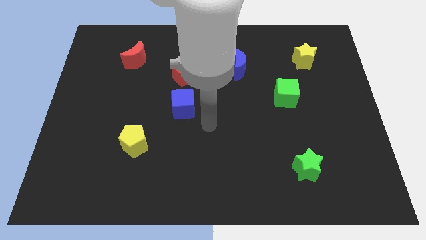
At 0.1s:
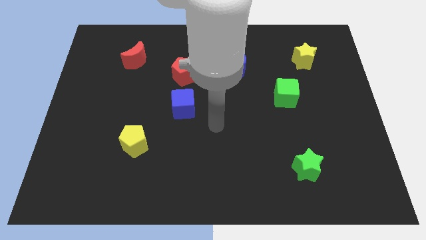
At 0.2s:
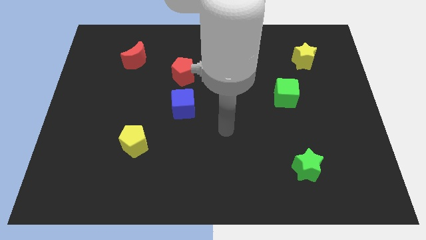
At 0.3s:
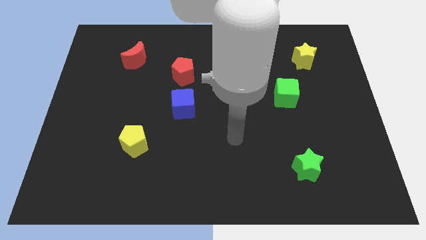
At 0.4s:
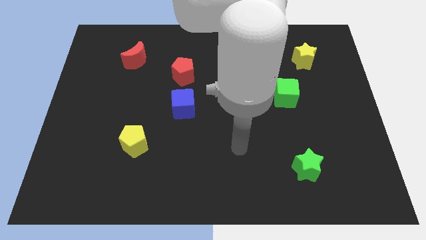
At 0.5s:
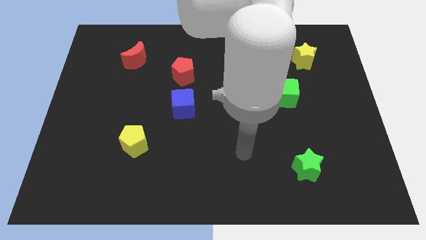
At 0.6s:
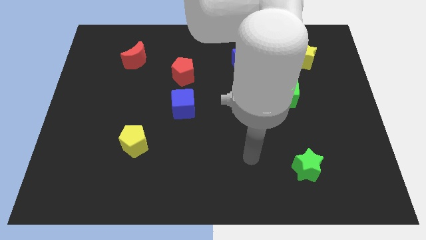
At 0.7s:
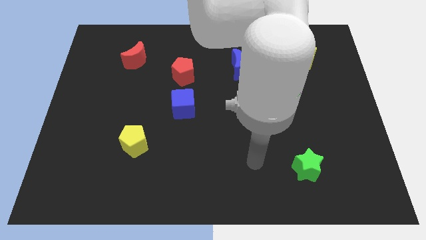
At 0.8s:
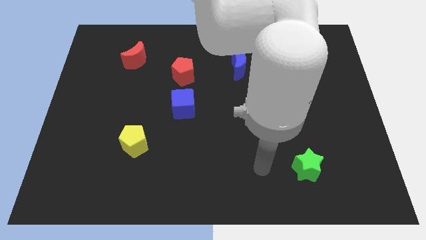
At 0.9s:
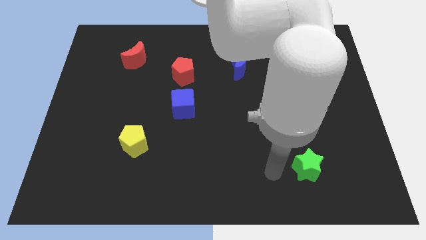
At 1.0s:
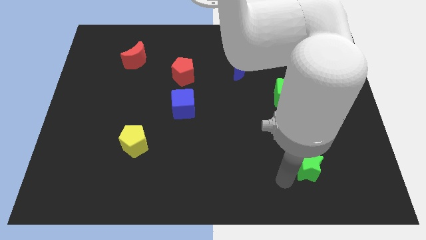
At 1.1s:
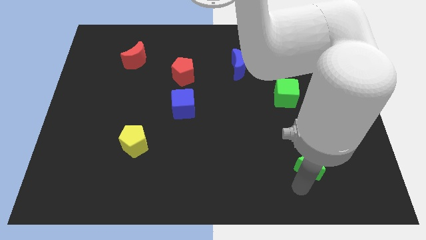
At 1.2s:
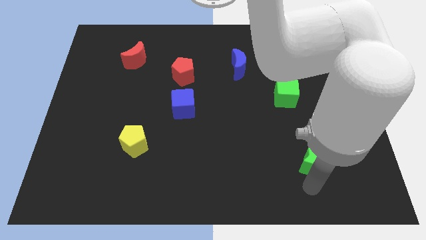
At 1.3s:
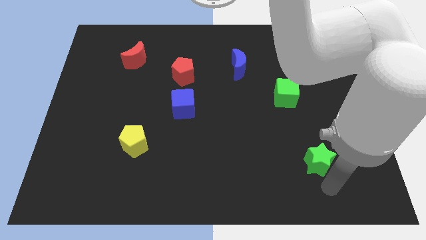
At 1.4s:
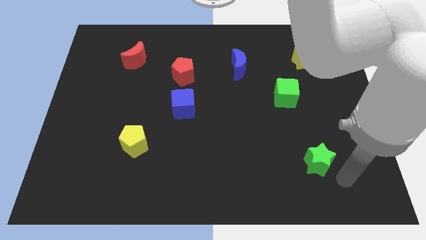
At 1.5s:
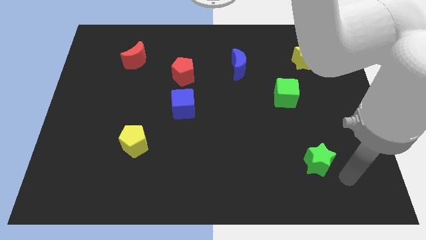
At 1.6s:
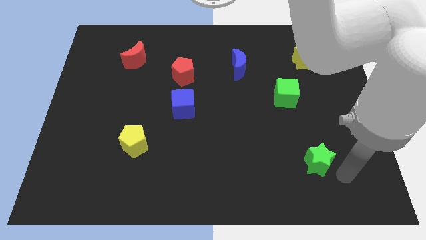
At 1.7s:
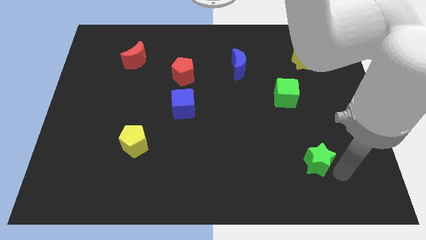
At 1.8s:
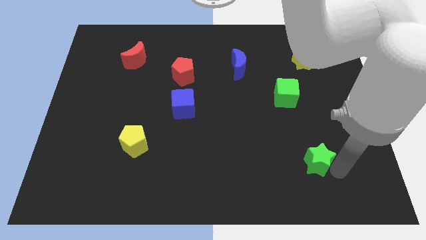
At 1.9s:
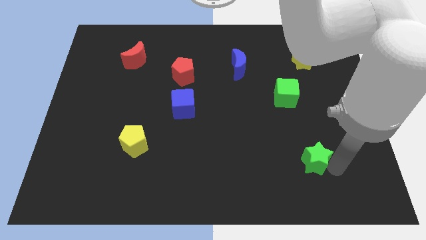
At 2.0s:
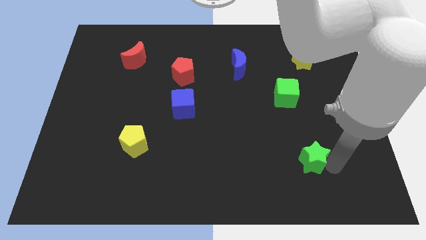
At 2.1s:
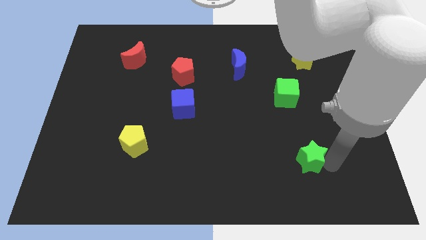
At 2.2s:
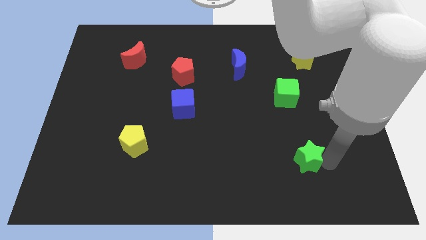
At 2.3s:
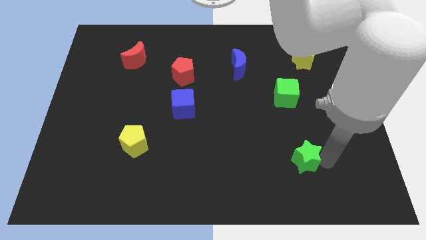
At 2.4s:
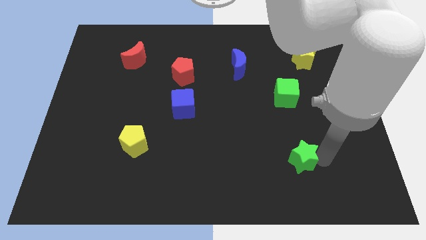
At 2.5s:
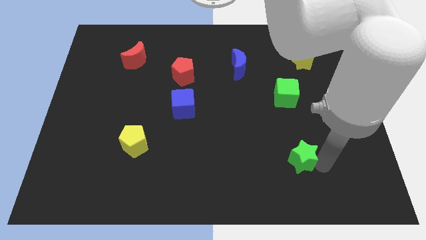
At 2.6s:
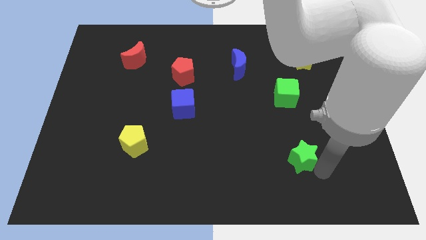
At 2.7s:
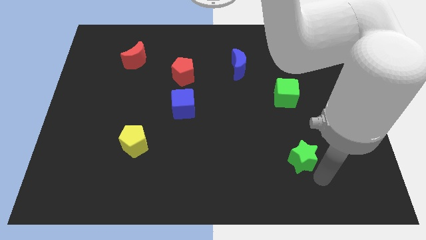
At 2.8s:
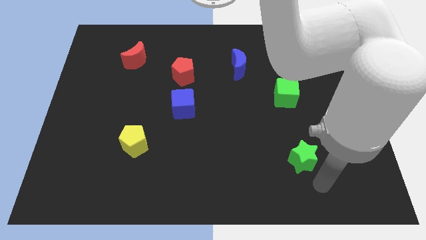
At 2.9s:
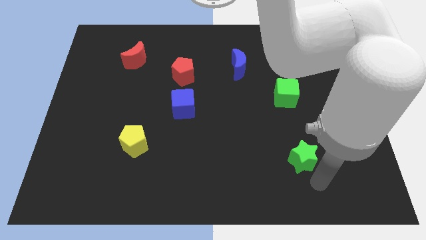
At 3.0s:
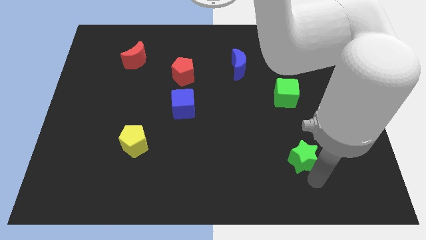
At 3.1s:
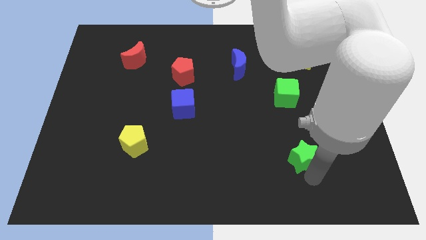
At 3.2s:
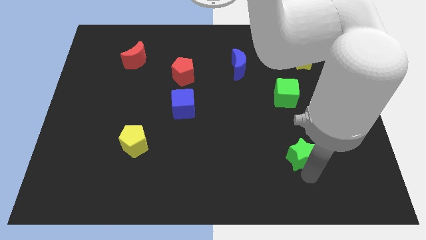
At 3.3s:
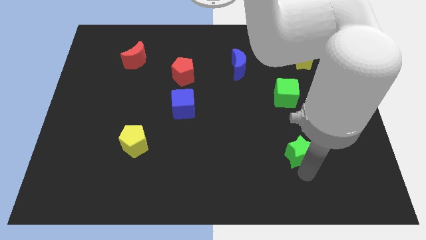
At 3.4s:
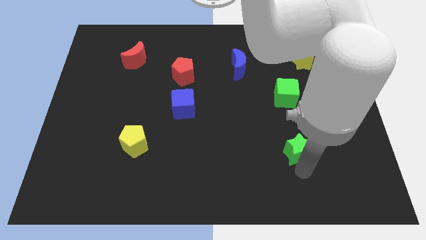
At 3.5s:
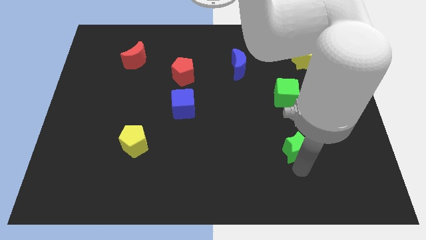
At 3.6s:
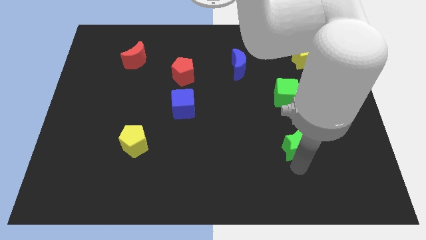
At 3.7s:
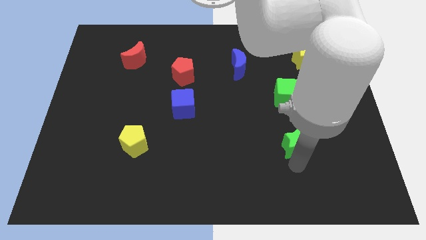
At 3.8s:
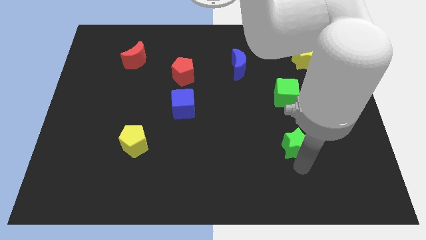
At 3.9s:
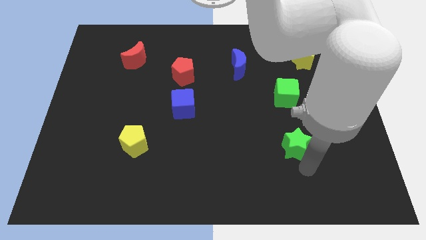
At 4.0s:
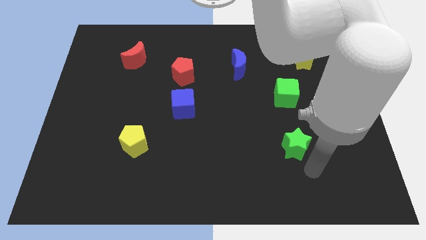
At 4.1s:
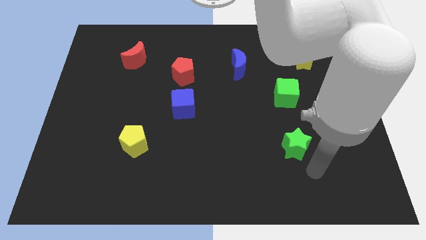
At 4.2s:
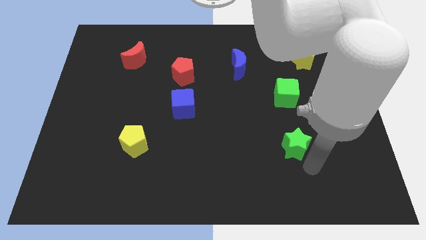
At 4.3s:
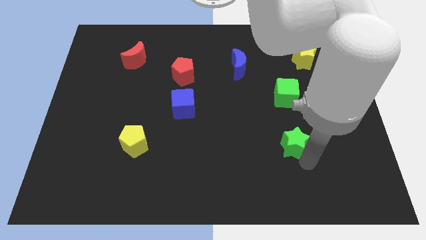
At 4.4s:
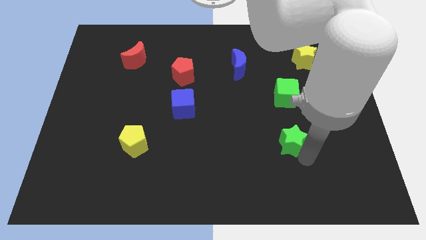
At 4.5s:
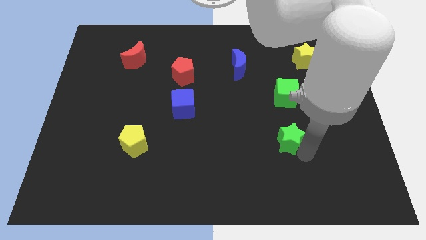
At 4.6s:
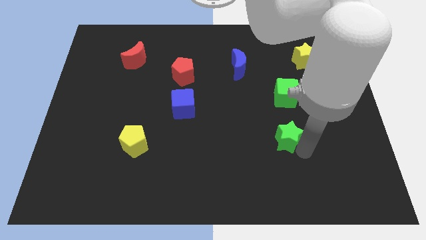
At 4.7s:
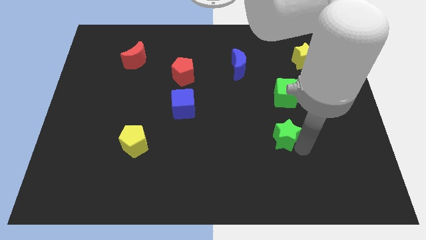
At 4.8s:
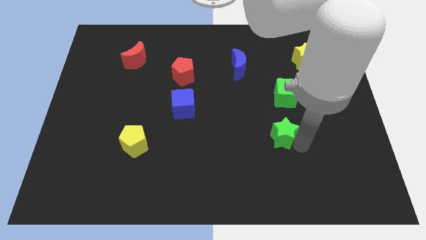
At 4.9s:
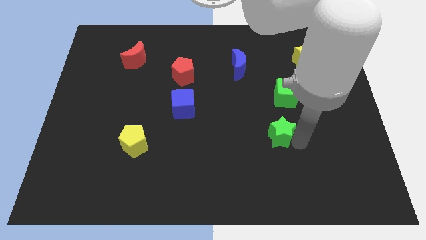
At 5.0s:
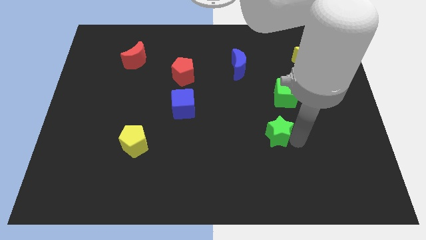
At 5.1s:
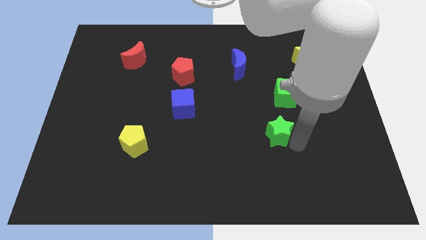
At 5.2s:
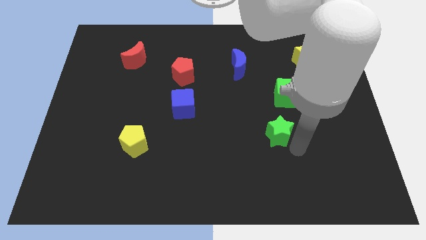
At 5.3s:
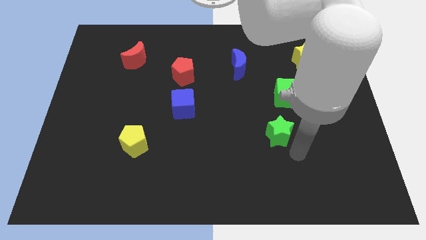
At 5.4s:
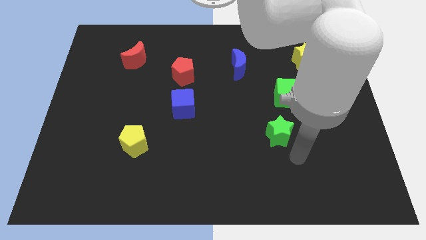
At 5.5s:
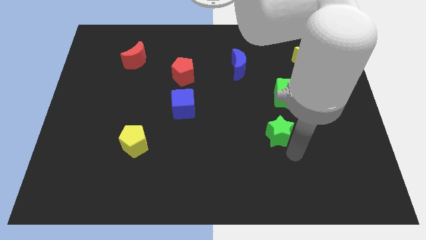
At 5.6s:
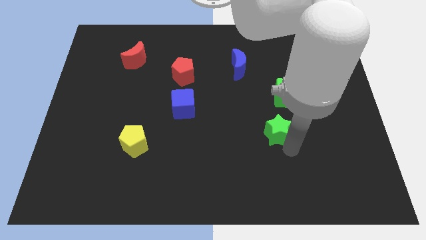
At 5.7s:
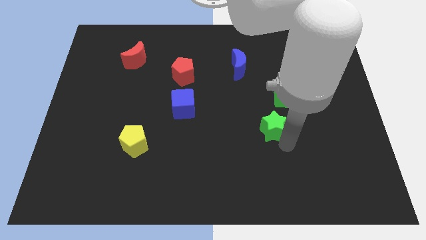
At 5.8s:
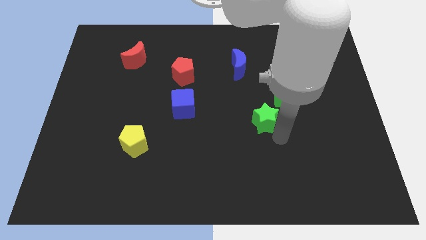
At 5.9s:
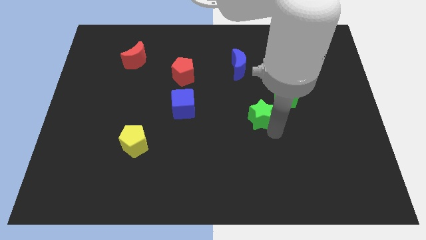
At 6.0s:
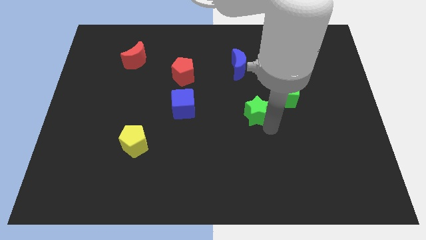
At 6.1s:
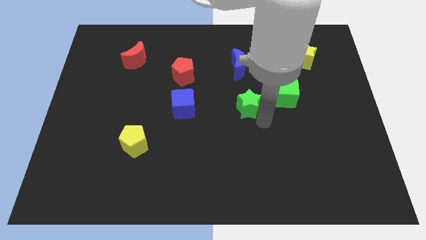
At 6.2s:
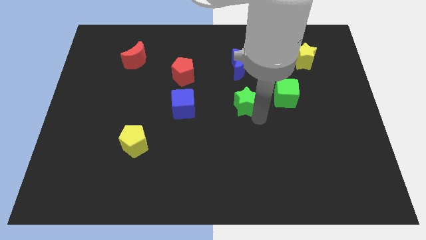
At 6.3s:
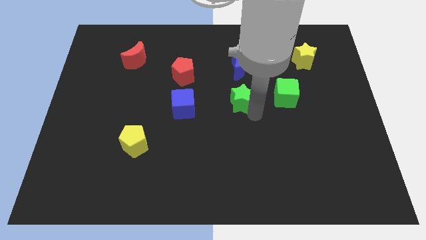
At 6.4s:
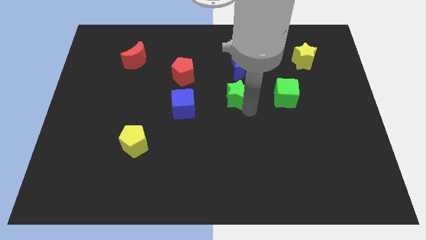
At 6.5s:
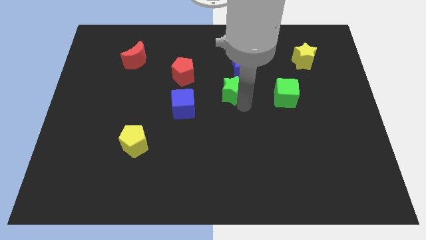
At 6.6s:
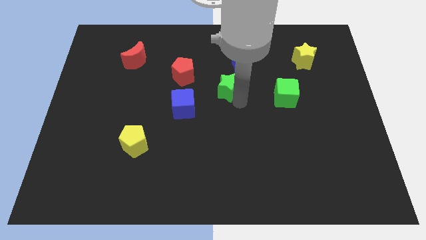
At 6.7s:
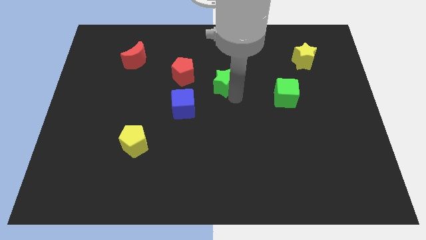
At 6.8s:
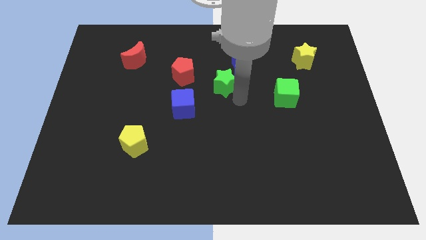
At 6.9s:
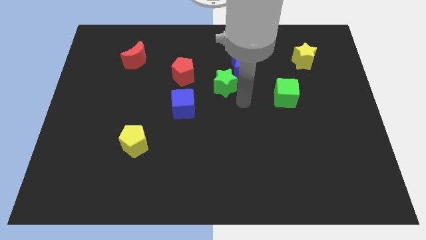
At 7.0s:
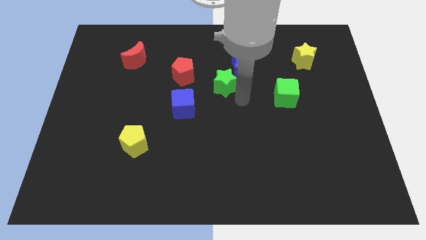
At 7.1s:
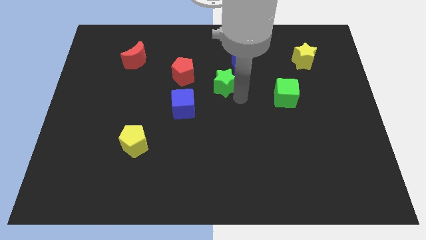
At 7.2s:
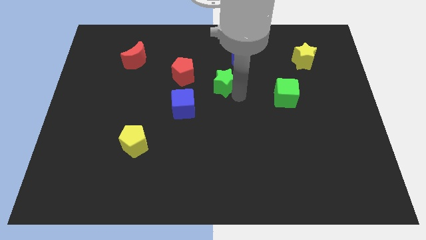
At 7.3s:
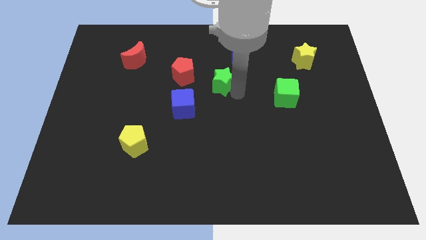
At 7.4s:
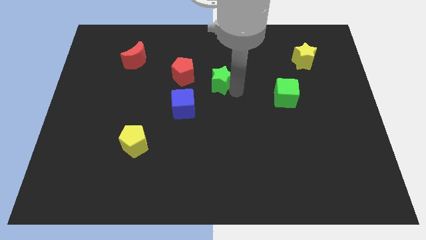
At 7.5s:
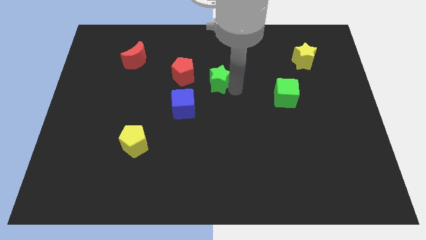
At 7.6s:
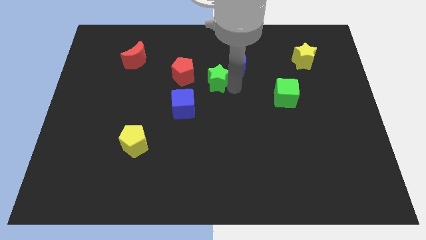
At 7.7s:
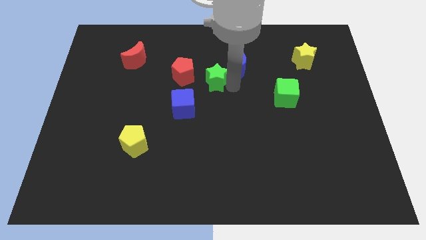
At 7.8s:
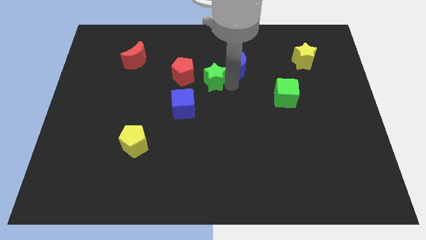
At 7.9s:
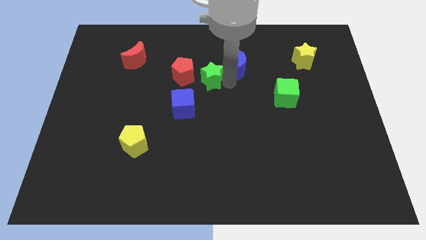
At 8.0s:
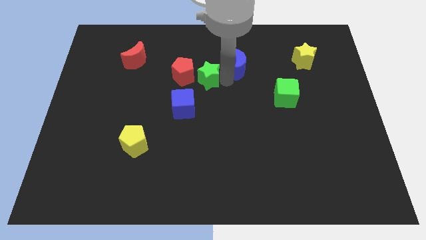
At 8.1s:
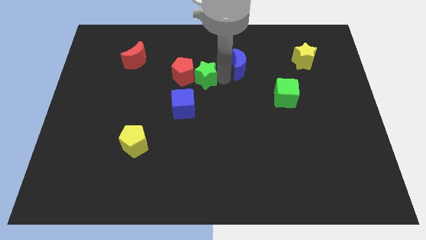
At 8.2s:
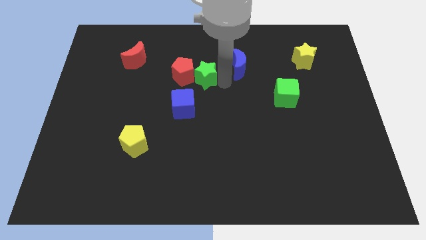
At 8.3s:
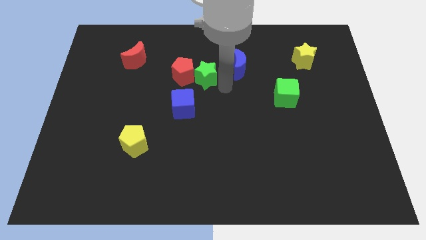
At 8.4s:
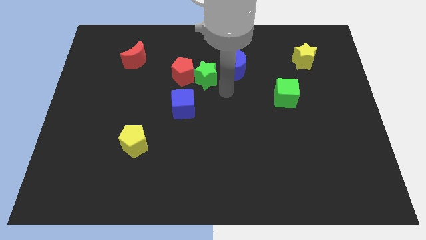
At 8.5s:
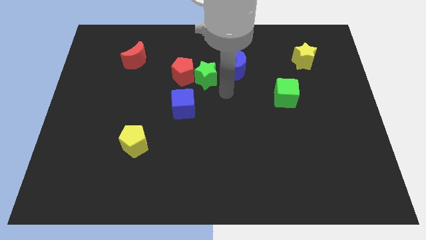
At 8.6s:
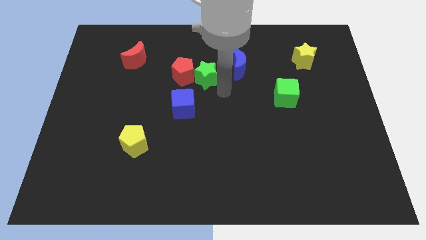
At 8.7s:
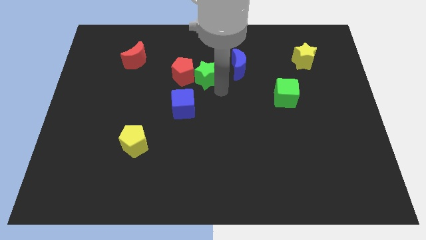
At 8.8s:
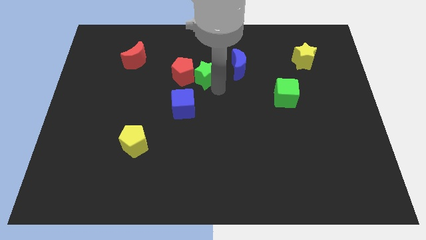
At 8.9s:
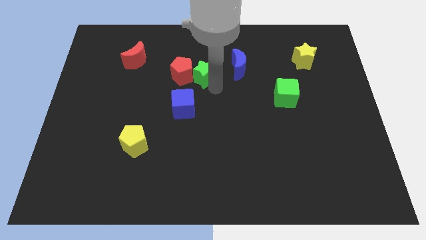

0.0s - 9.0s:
slide the green star above the blue cube
